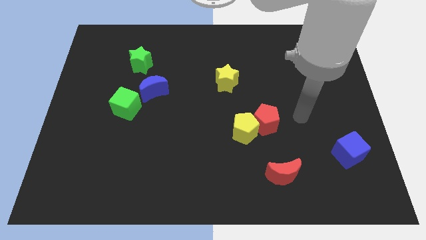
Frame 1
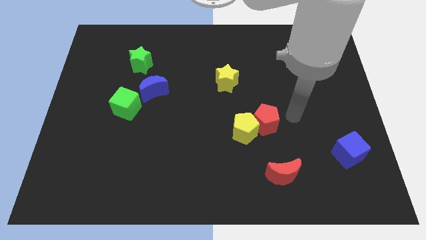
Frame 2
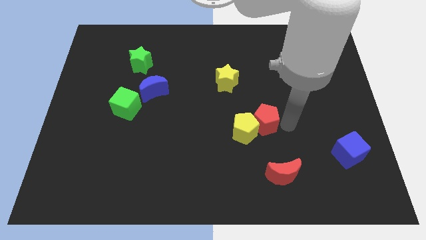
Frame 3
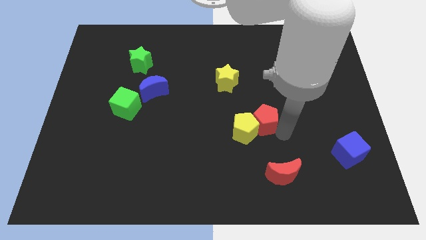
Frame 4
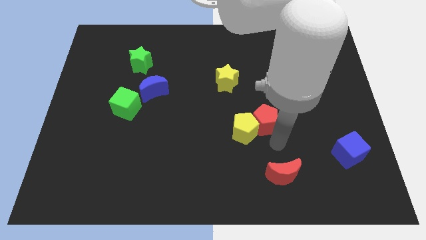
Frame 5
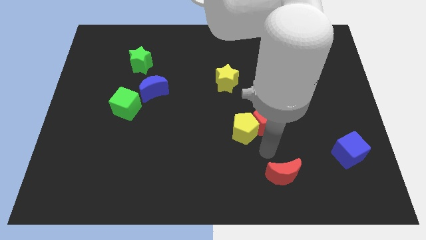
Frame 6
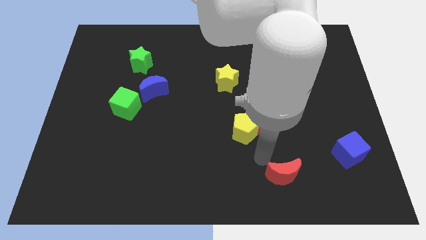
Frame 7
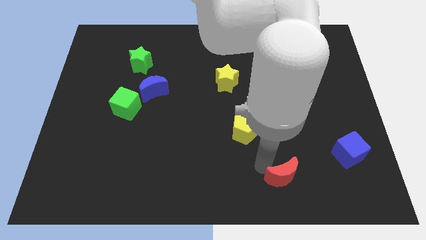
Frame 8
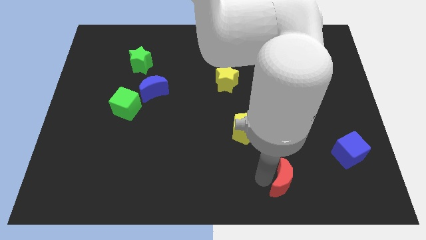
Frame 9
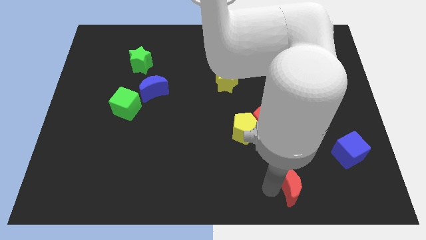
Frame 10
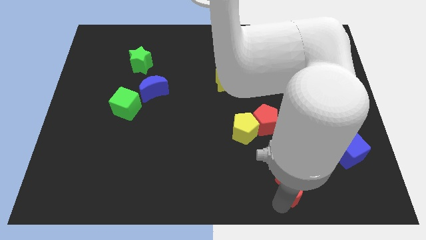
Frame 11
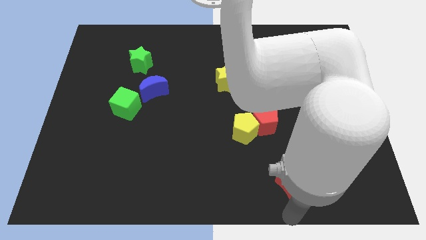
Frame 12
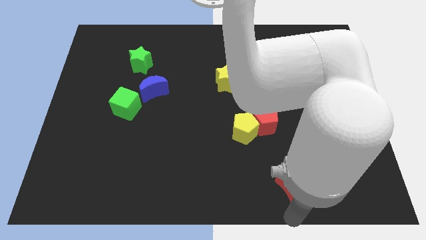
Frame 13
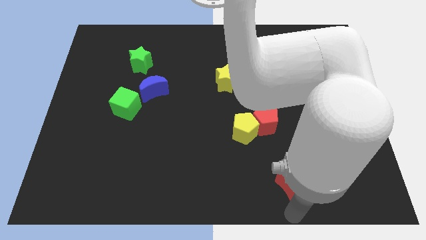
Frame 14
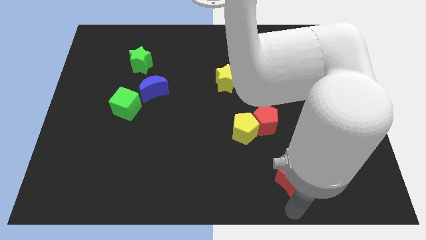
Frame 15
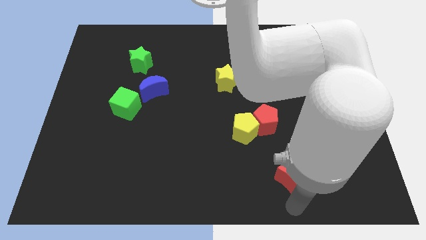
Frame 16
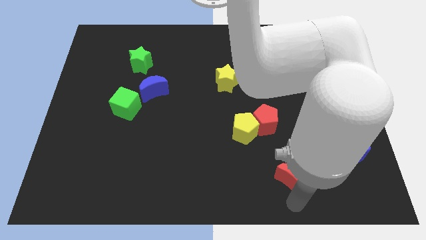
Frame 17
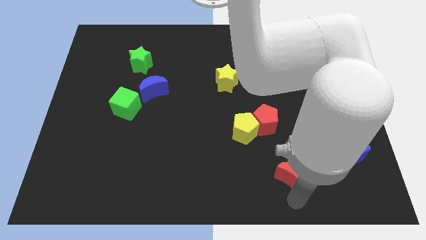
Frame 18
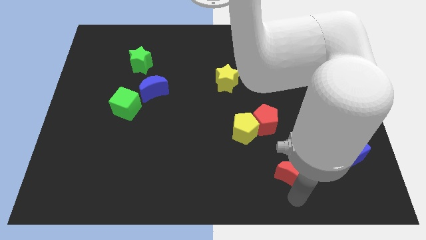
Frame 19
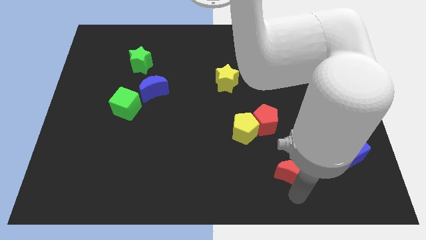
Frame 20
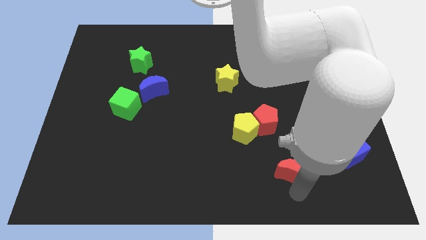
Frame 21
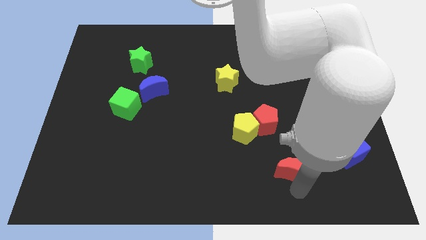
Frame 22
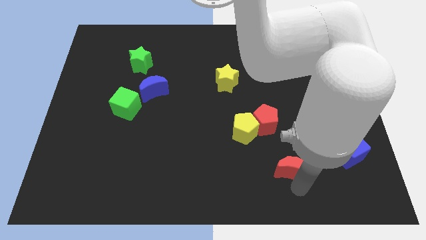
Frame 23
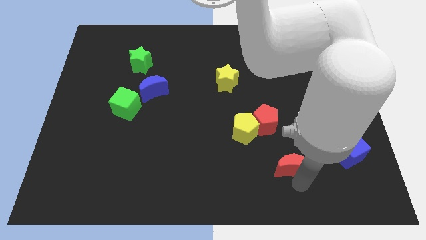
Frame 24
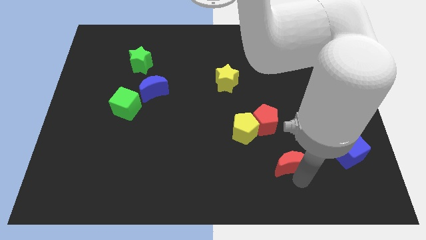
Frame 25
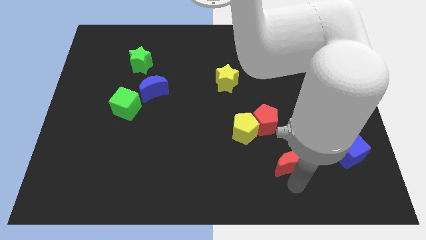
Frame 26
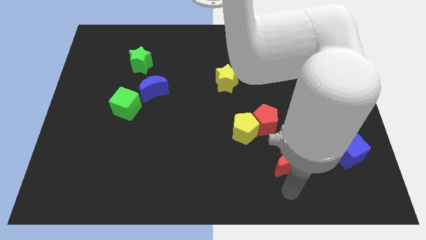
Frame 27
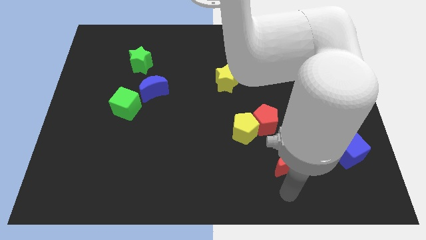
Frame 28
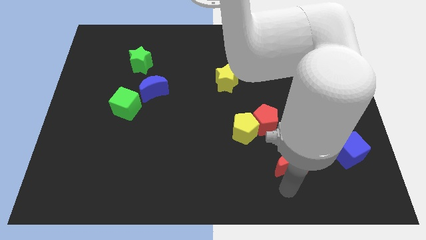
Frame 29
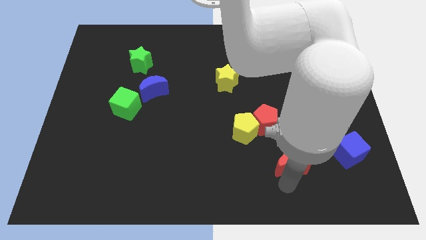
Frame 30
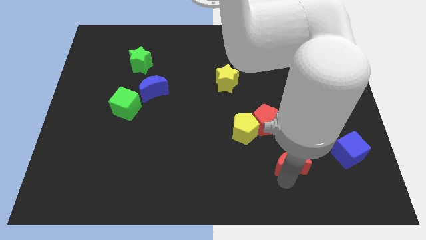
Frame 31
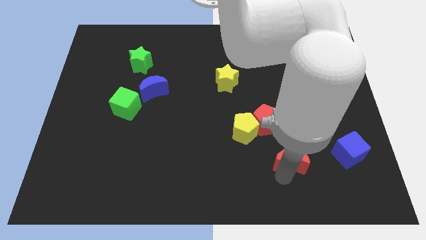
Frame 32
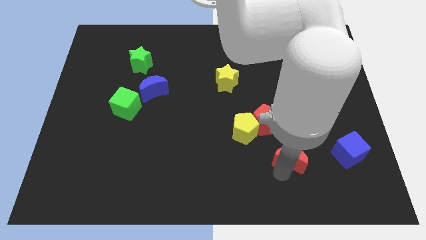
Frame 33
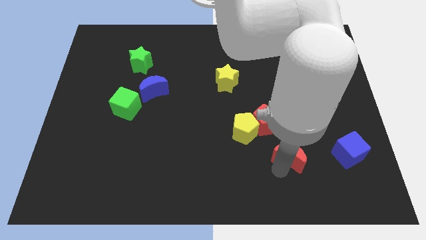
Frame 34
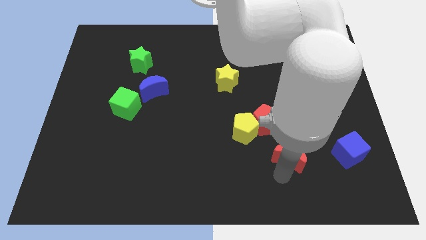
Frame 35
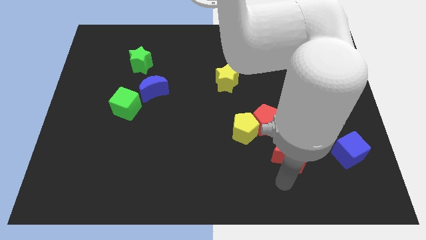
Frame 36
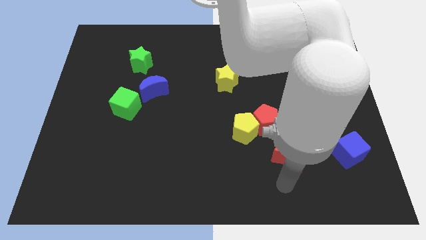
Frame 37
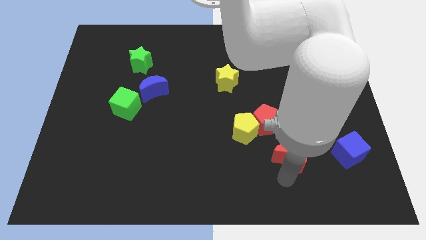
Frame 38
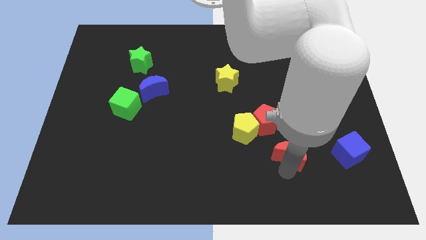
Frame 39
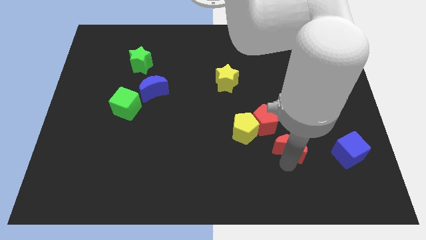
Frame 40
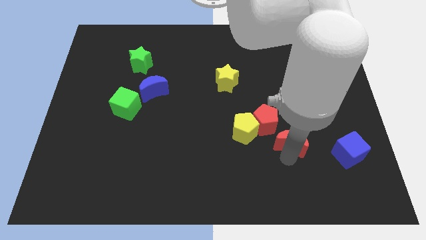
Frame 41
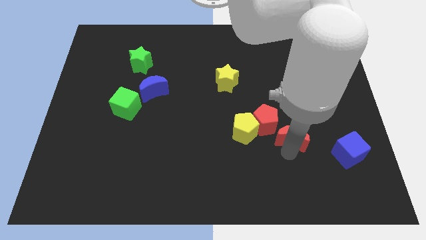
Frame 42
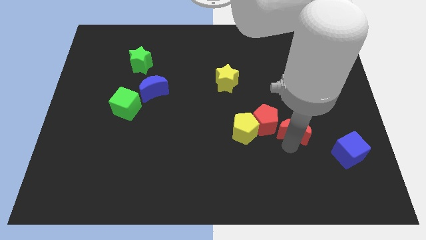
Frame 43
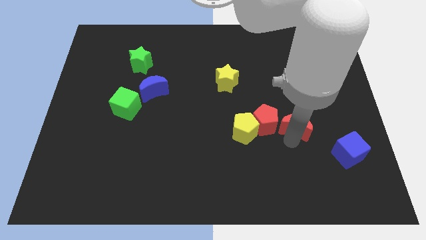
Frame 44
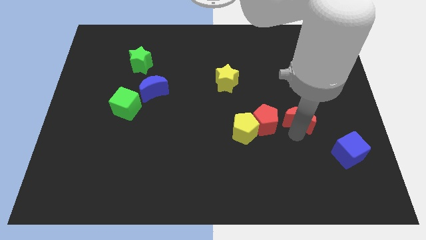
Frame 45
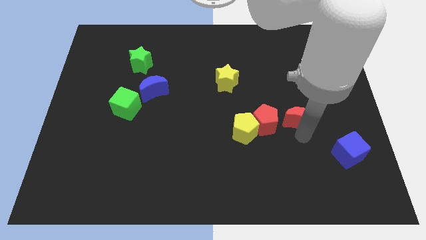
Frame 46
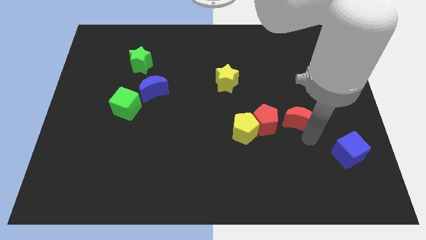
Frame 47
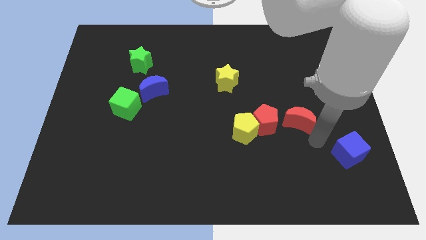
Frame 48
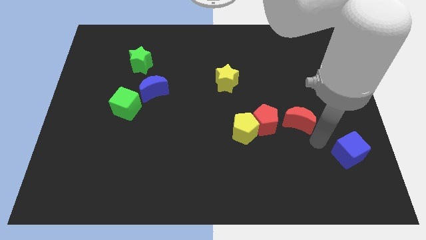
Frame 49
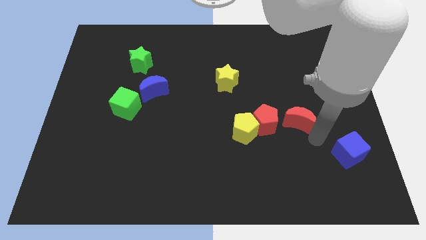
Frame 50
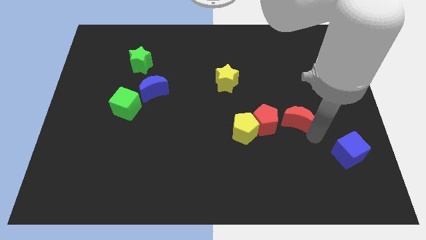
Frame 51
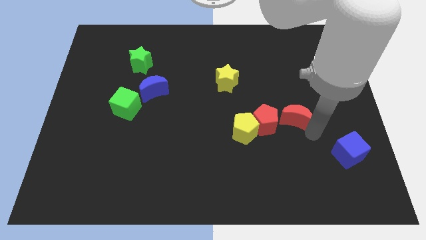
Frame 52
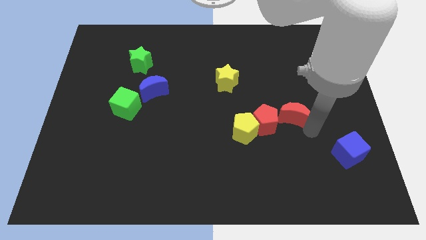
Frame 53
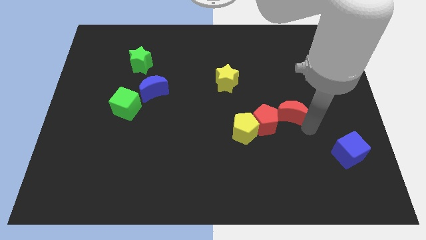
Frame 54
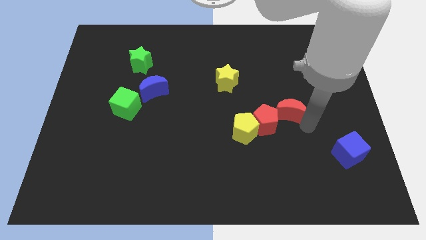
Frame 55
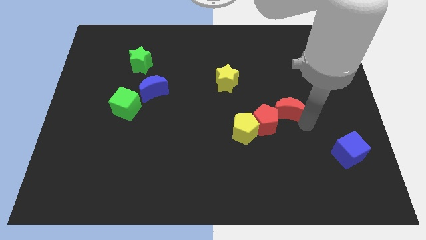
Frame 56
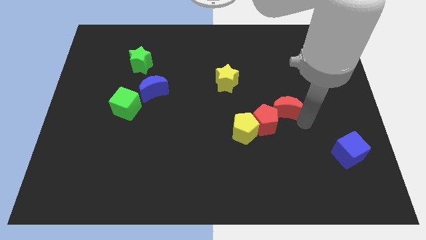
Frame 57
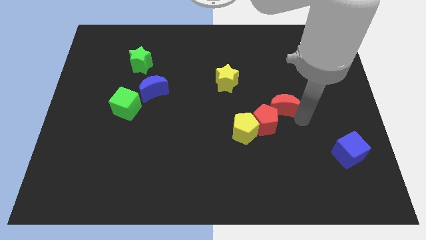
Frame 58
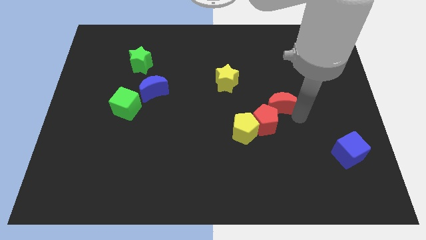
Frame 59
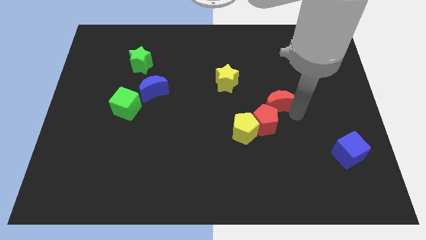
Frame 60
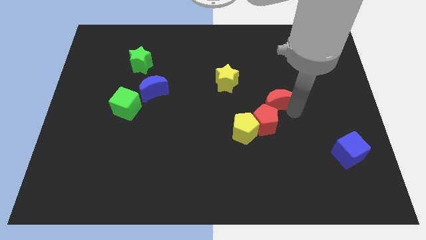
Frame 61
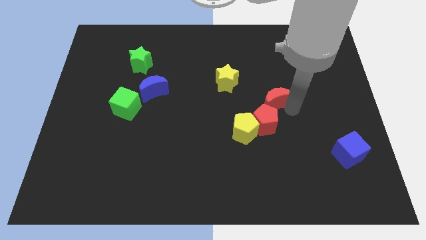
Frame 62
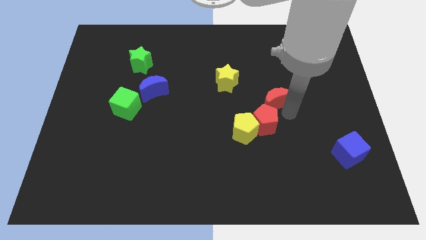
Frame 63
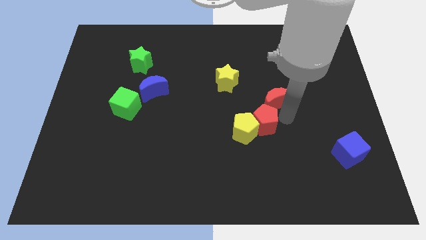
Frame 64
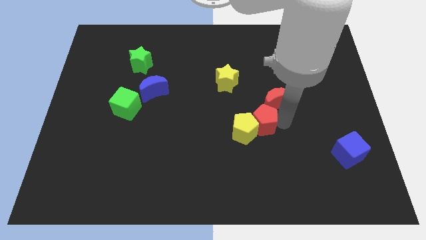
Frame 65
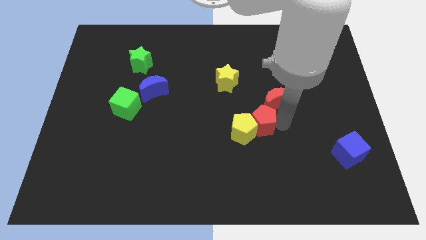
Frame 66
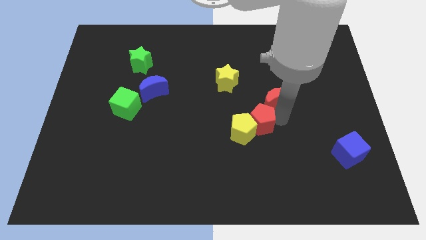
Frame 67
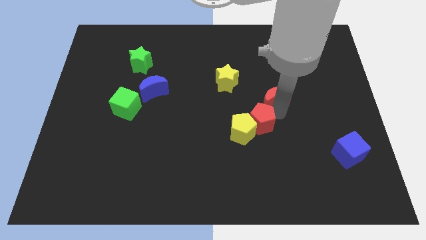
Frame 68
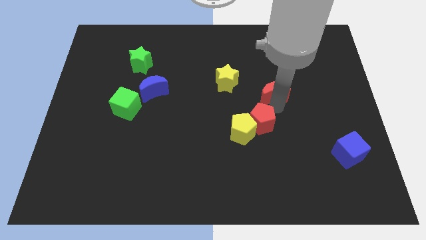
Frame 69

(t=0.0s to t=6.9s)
put the red moon to the right of the yellow star

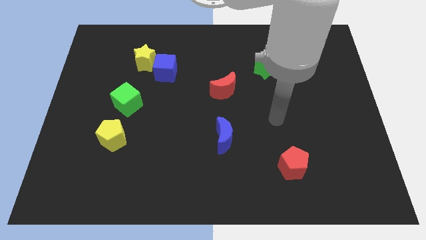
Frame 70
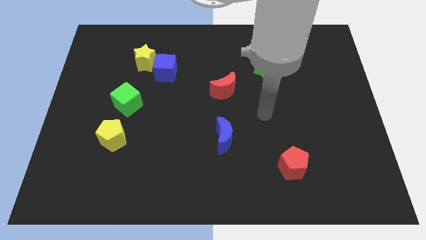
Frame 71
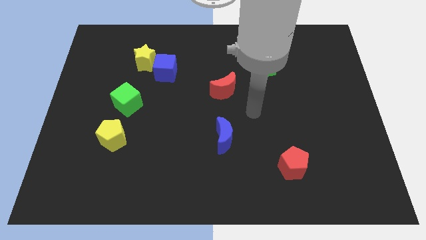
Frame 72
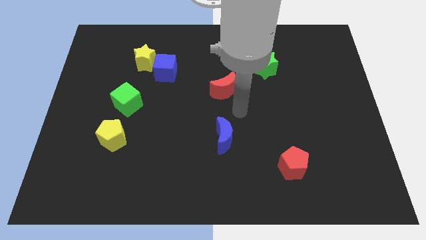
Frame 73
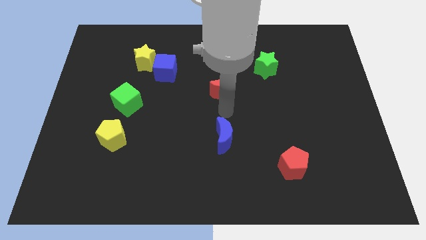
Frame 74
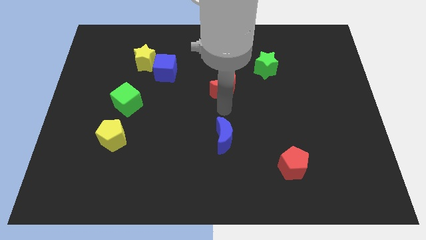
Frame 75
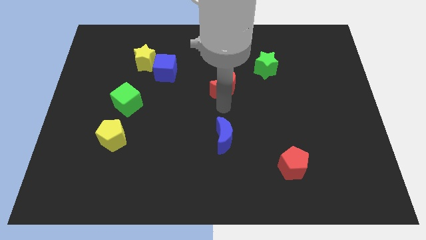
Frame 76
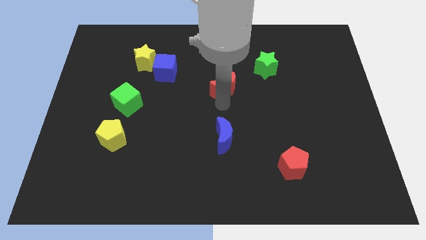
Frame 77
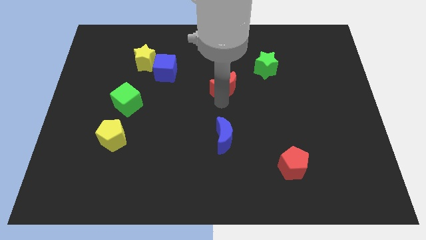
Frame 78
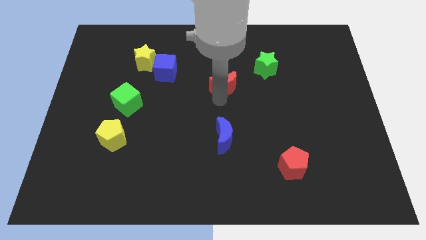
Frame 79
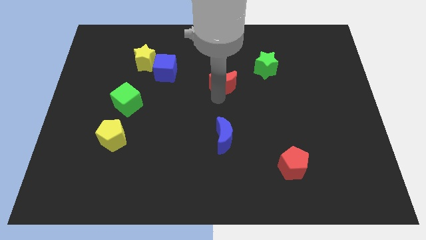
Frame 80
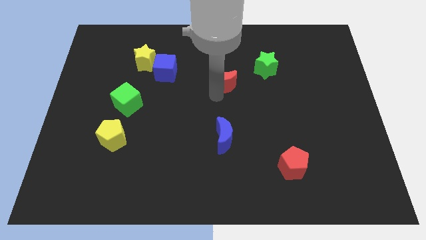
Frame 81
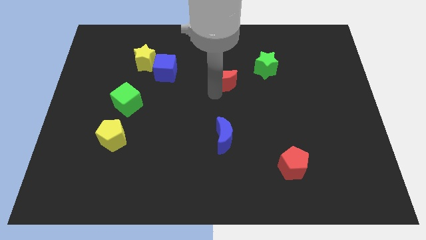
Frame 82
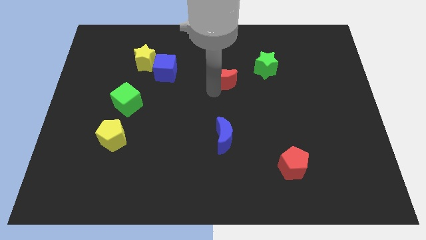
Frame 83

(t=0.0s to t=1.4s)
push the red moon to the left side of the green star
